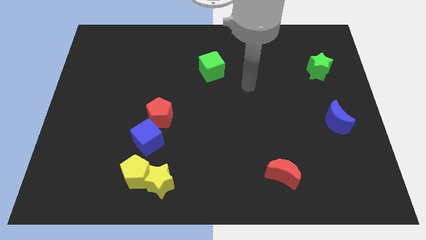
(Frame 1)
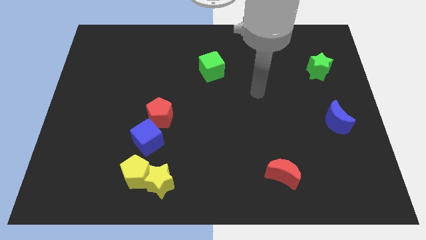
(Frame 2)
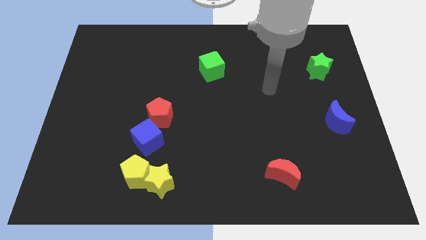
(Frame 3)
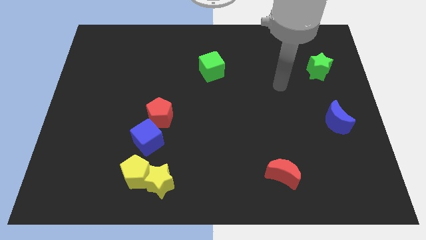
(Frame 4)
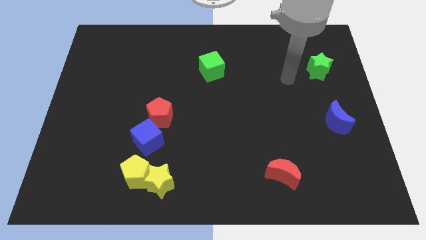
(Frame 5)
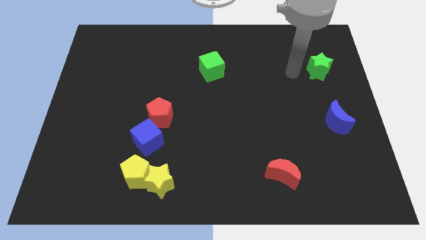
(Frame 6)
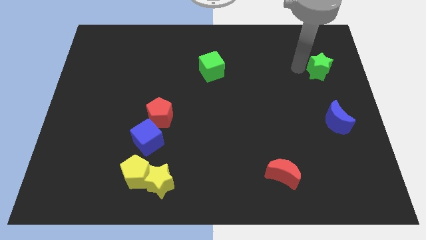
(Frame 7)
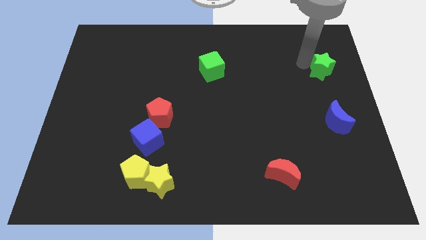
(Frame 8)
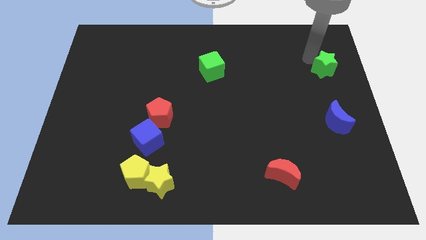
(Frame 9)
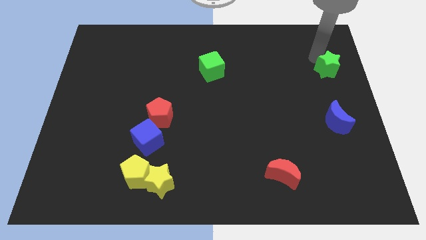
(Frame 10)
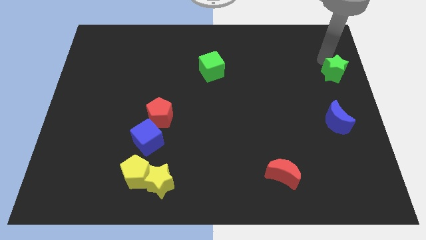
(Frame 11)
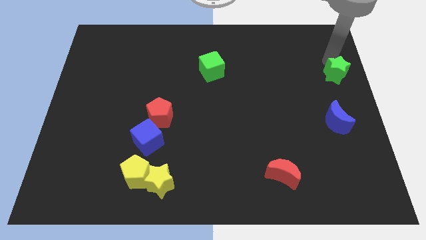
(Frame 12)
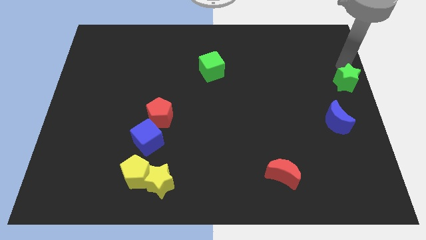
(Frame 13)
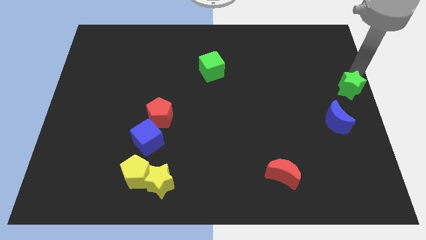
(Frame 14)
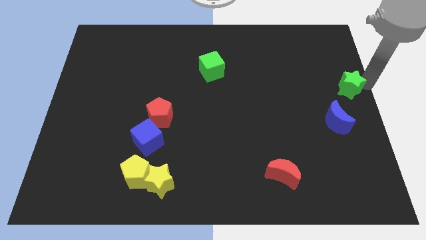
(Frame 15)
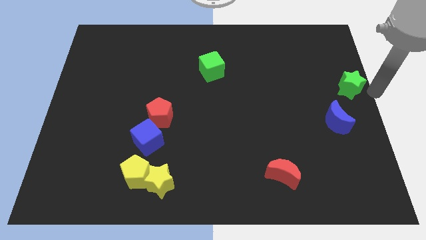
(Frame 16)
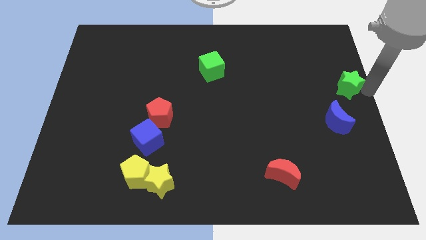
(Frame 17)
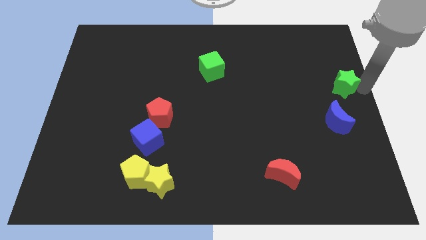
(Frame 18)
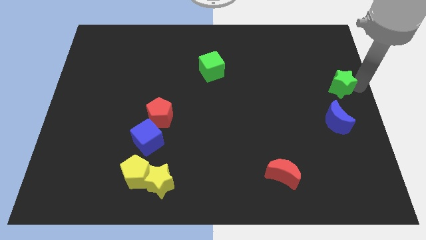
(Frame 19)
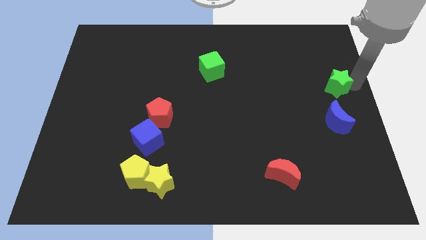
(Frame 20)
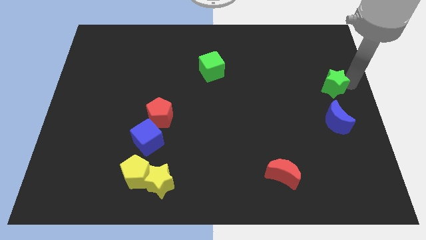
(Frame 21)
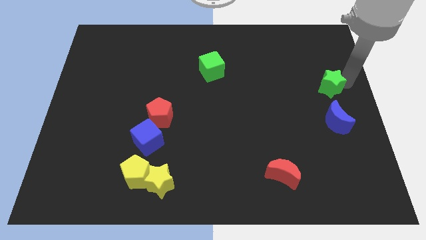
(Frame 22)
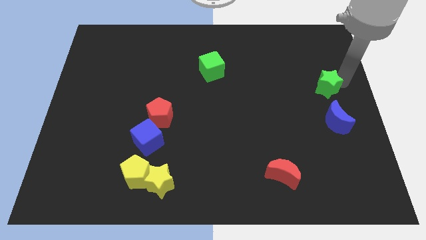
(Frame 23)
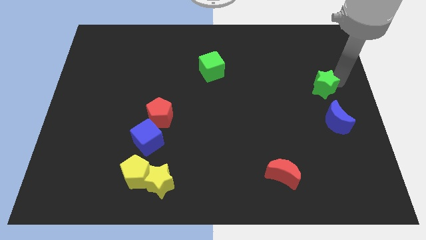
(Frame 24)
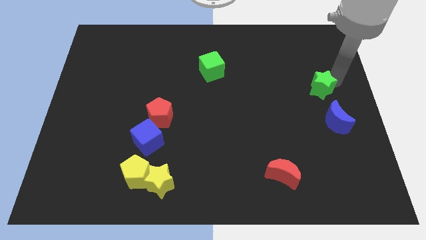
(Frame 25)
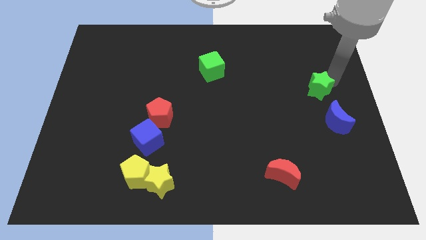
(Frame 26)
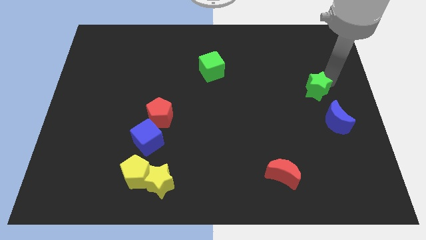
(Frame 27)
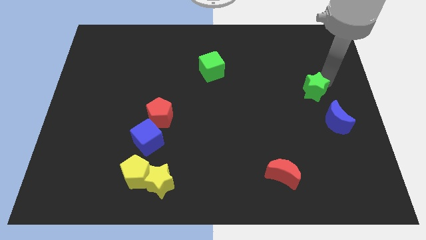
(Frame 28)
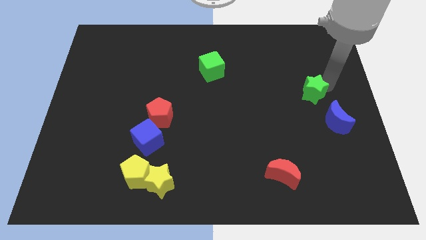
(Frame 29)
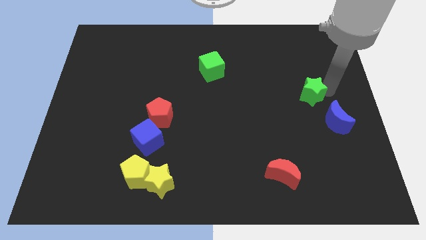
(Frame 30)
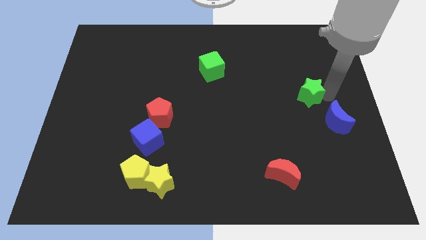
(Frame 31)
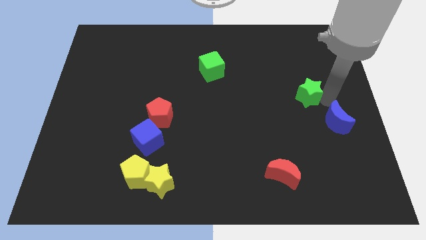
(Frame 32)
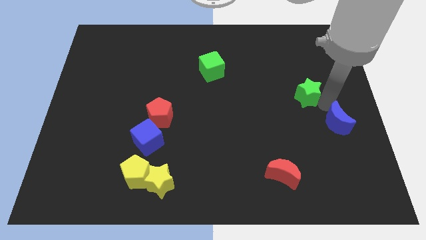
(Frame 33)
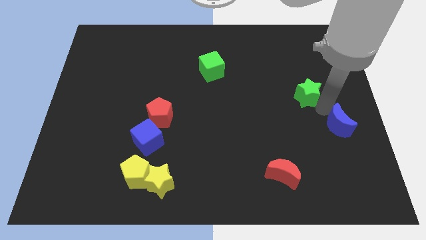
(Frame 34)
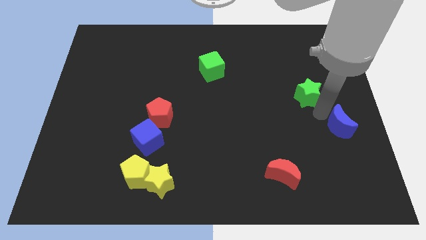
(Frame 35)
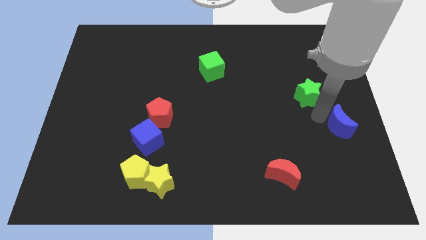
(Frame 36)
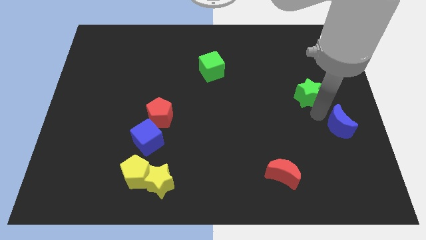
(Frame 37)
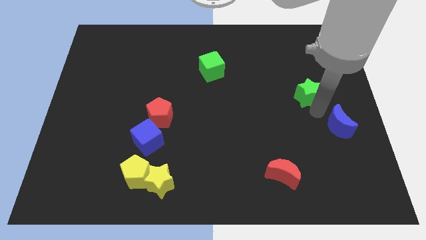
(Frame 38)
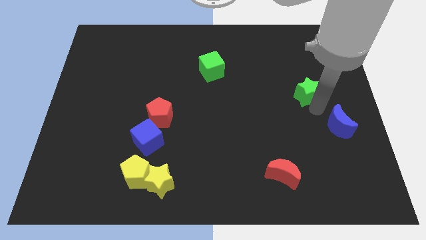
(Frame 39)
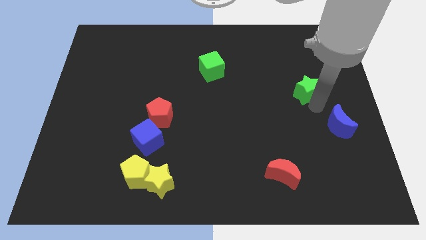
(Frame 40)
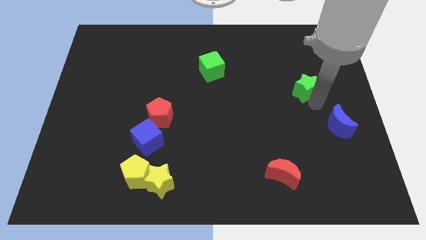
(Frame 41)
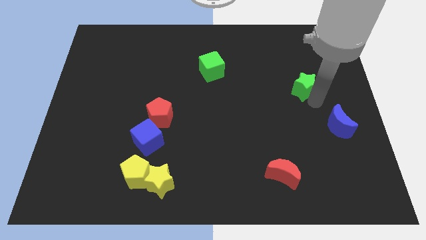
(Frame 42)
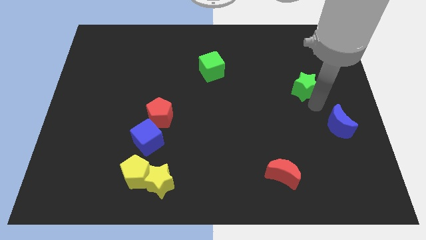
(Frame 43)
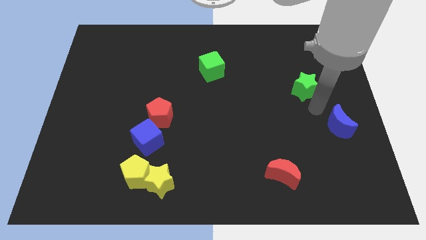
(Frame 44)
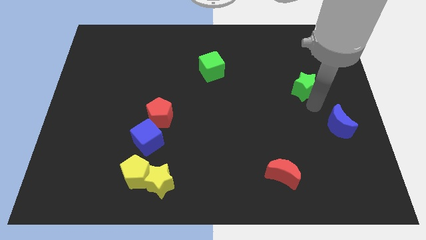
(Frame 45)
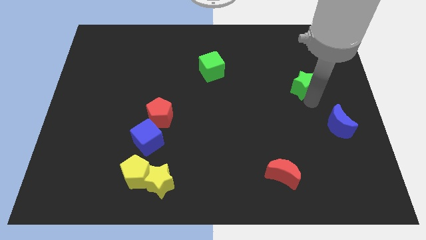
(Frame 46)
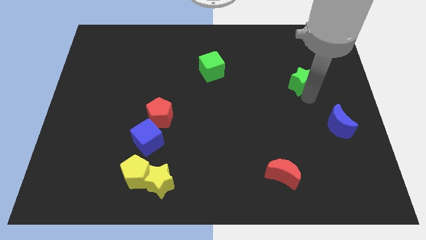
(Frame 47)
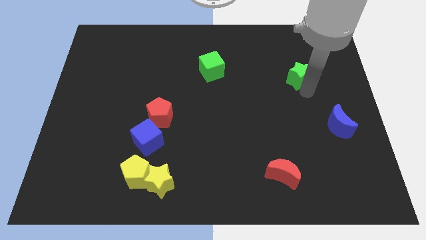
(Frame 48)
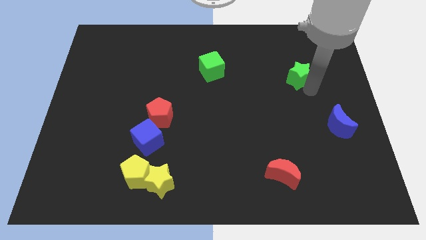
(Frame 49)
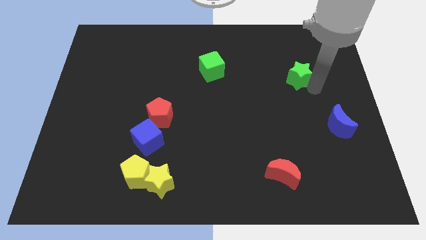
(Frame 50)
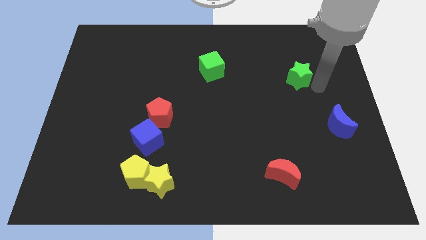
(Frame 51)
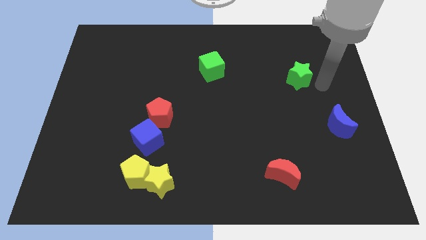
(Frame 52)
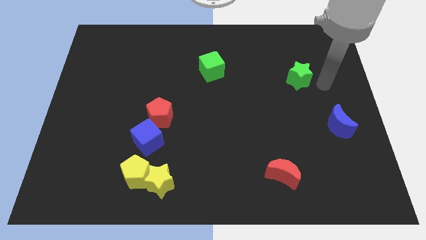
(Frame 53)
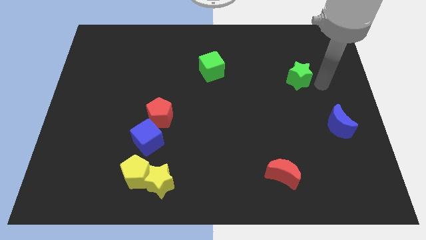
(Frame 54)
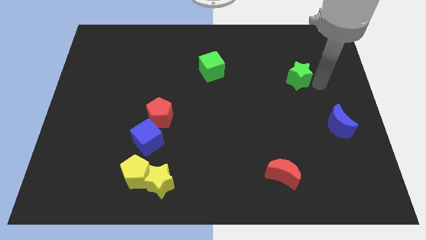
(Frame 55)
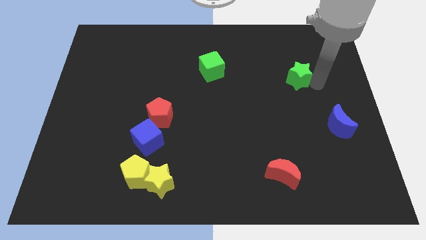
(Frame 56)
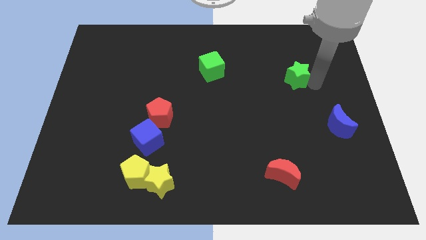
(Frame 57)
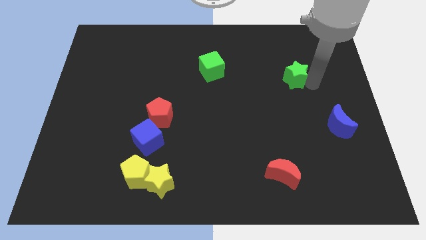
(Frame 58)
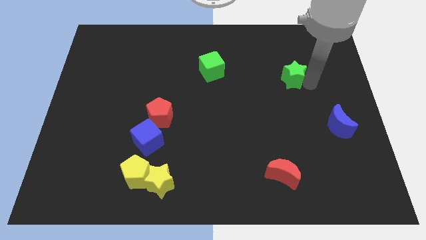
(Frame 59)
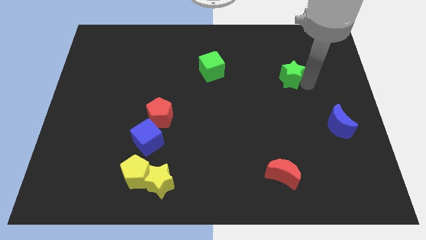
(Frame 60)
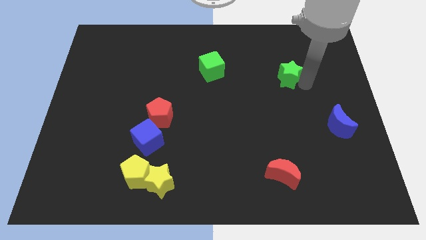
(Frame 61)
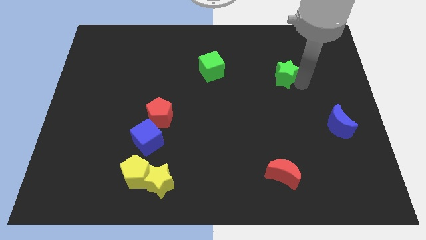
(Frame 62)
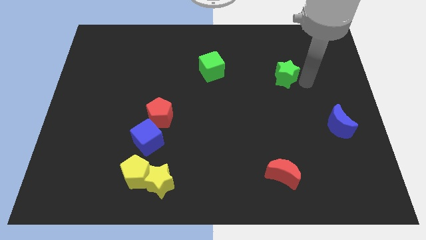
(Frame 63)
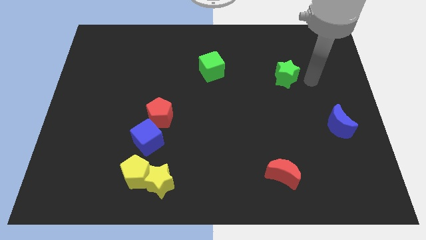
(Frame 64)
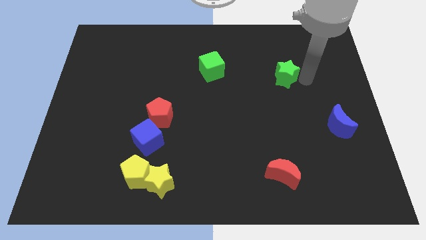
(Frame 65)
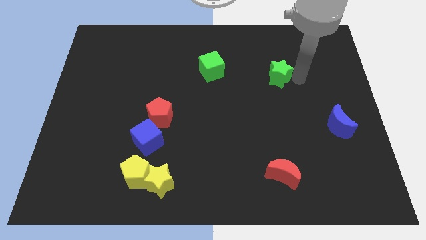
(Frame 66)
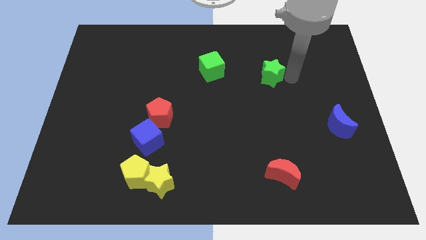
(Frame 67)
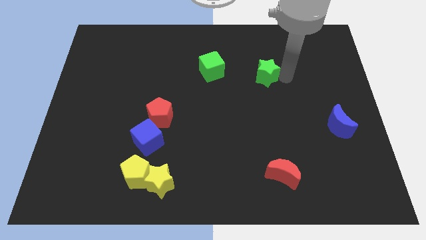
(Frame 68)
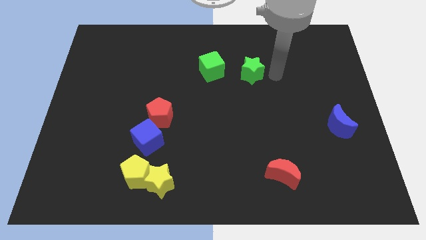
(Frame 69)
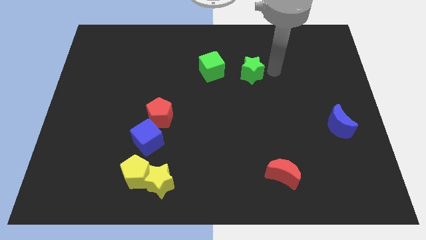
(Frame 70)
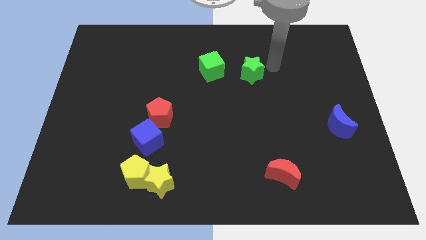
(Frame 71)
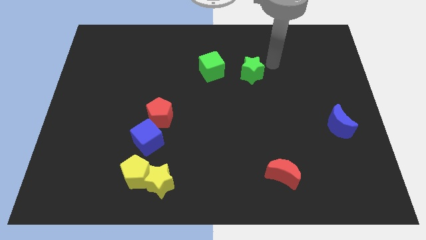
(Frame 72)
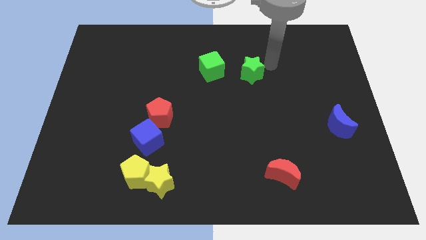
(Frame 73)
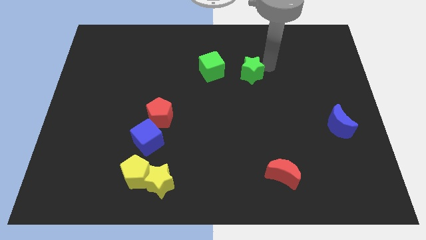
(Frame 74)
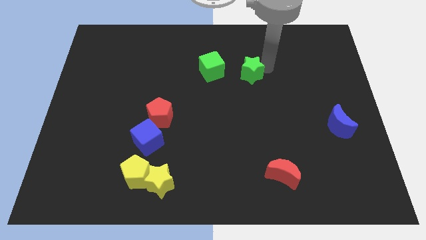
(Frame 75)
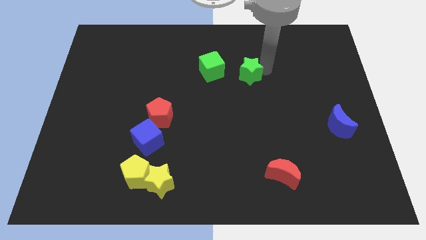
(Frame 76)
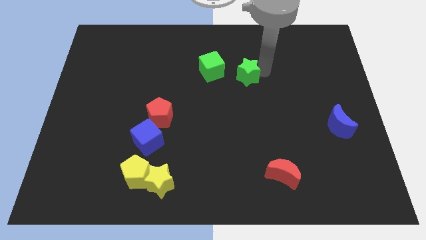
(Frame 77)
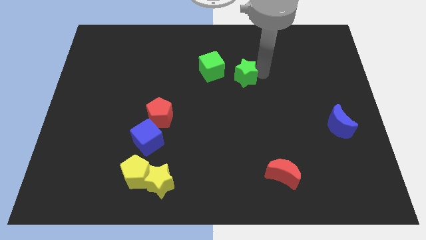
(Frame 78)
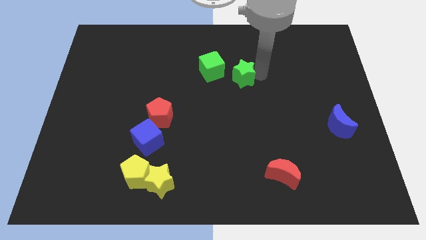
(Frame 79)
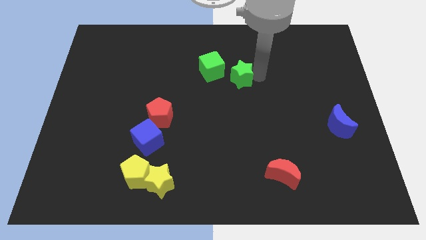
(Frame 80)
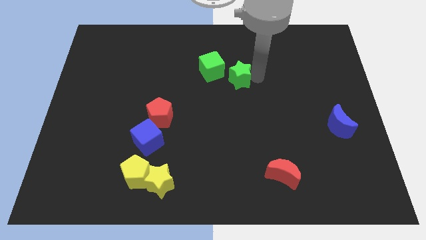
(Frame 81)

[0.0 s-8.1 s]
push the green star left
